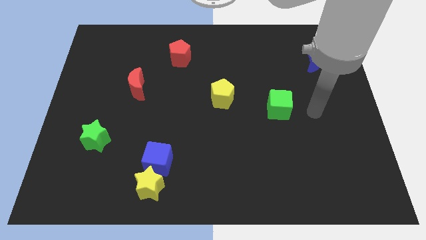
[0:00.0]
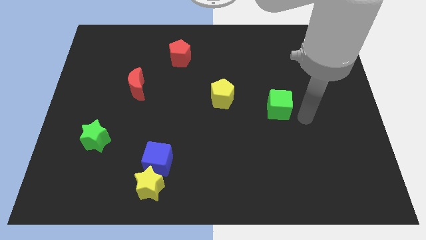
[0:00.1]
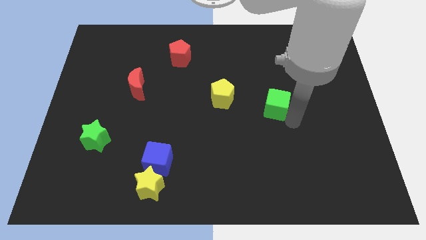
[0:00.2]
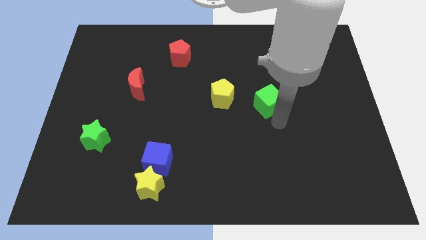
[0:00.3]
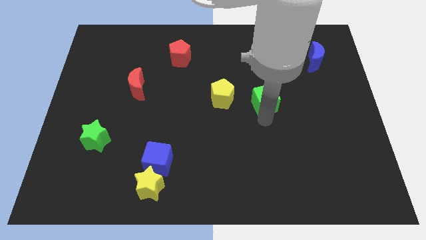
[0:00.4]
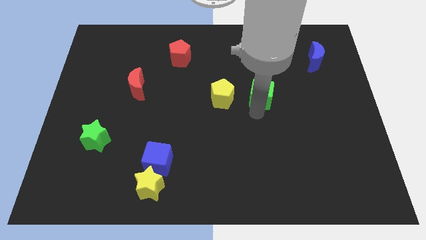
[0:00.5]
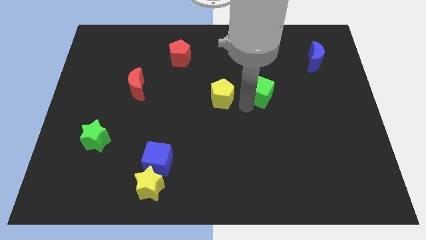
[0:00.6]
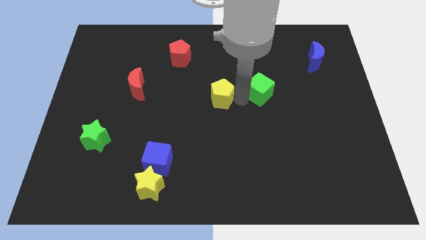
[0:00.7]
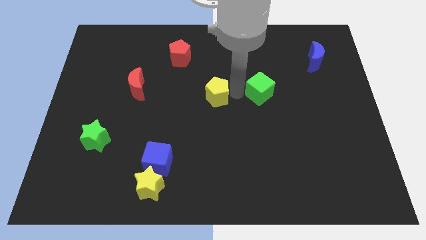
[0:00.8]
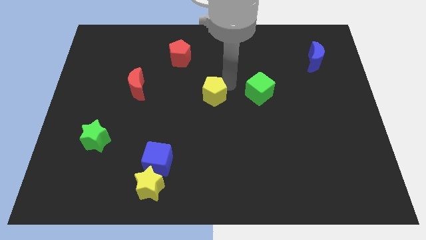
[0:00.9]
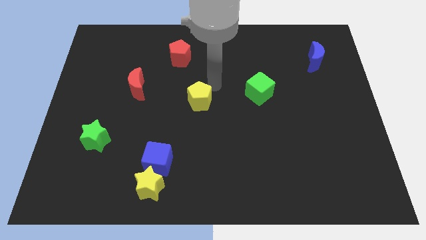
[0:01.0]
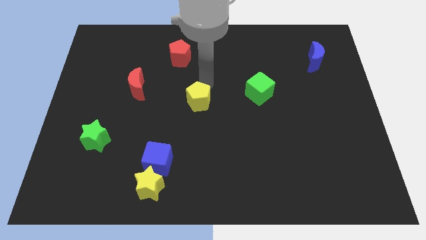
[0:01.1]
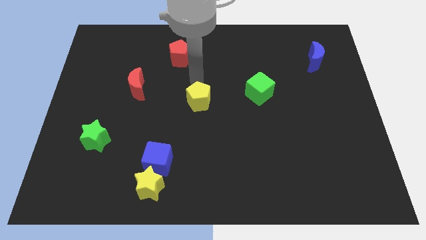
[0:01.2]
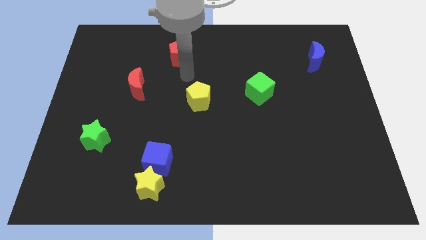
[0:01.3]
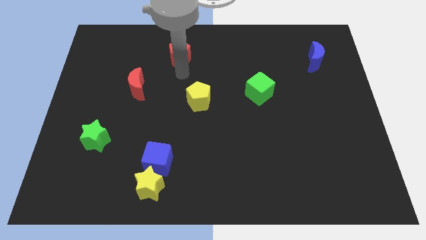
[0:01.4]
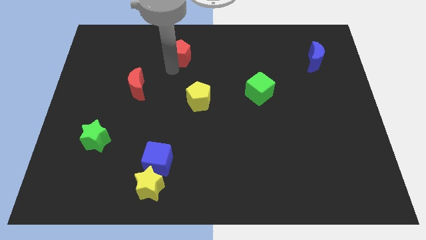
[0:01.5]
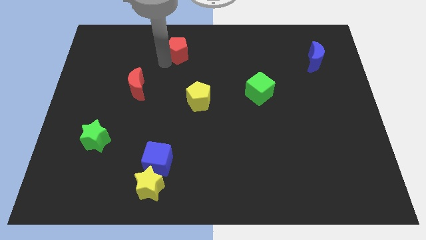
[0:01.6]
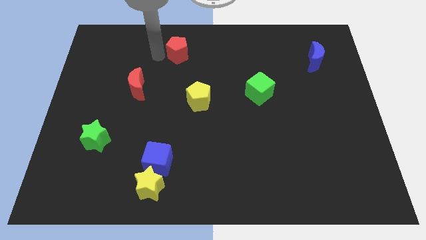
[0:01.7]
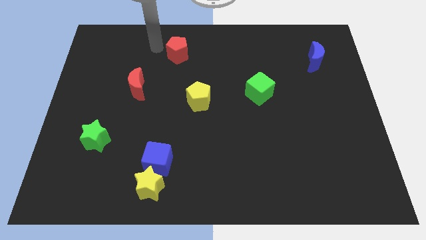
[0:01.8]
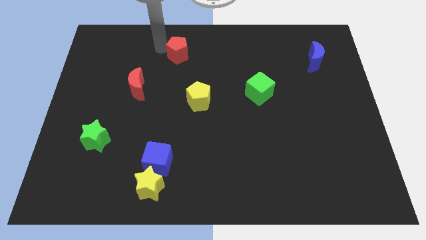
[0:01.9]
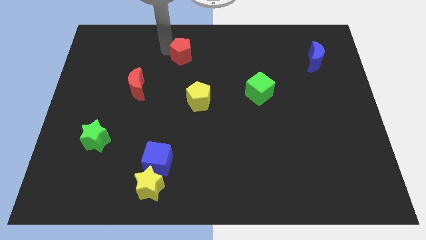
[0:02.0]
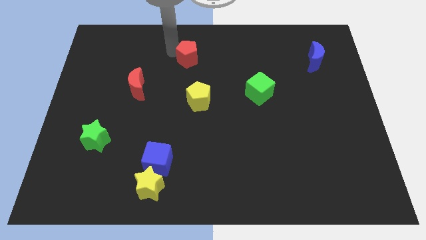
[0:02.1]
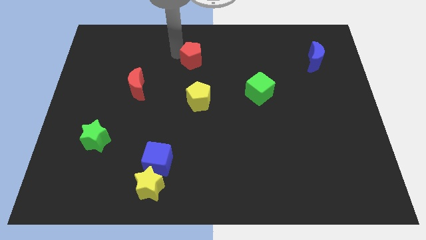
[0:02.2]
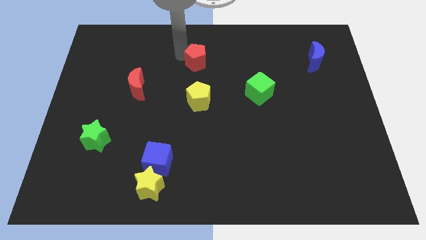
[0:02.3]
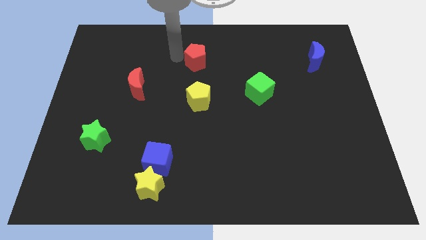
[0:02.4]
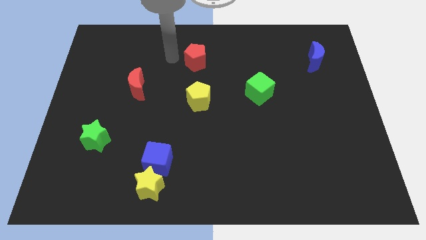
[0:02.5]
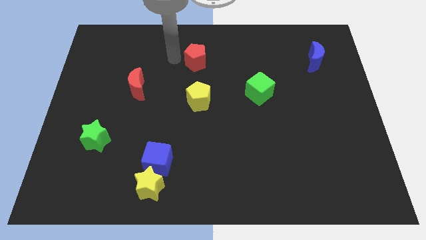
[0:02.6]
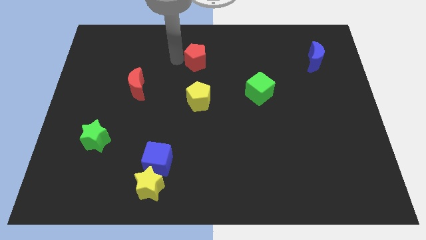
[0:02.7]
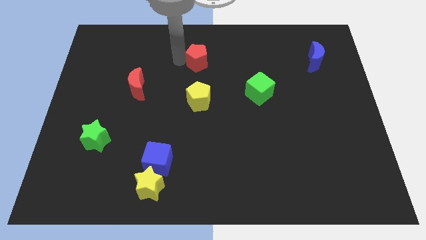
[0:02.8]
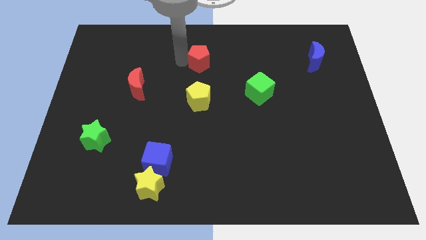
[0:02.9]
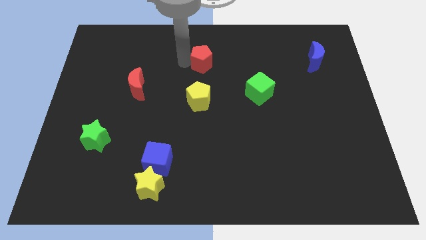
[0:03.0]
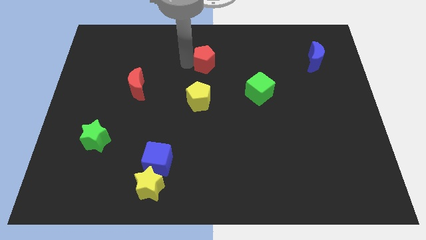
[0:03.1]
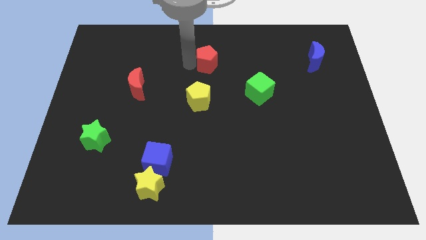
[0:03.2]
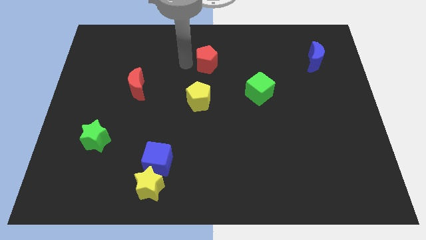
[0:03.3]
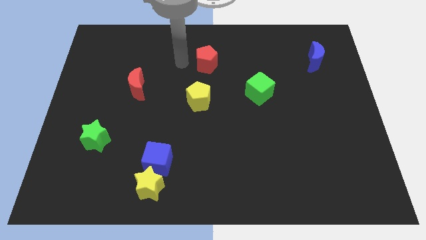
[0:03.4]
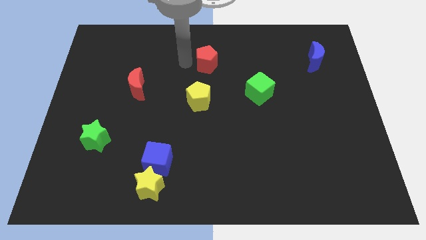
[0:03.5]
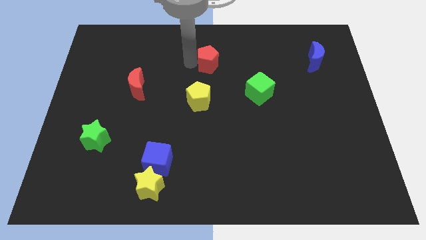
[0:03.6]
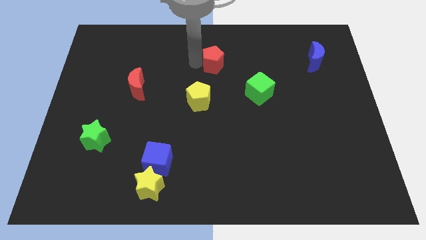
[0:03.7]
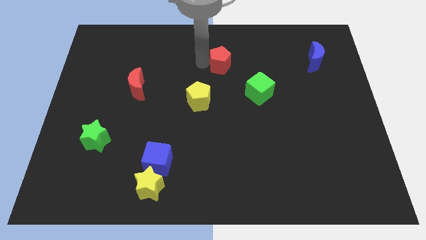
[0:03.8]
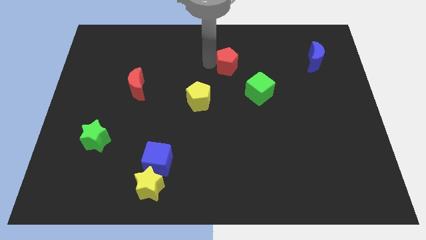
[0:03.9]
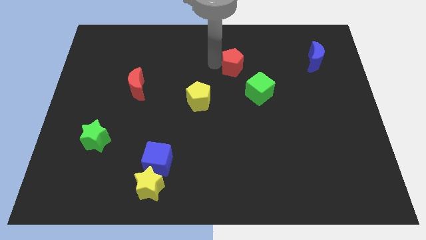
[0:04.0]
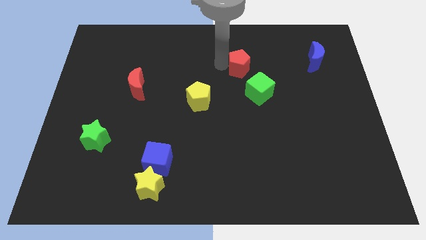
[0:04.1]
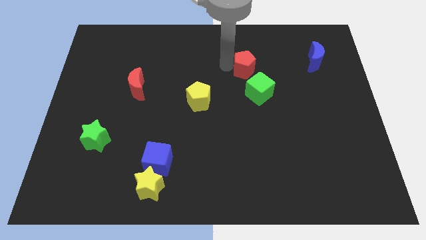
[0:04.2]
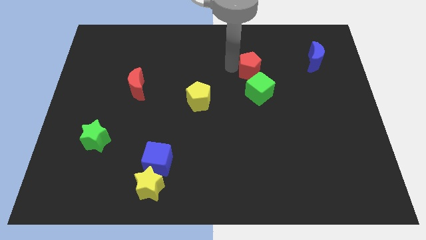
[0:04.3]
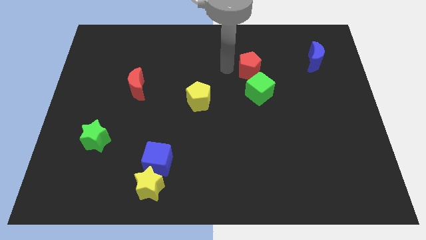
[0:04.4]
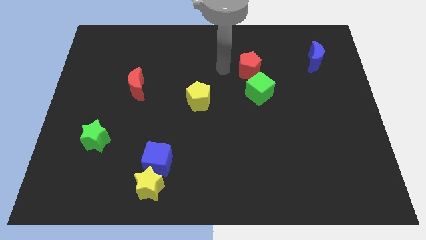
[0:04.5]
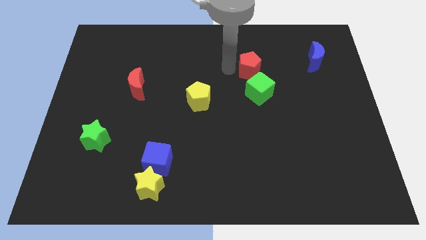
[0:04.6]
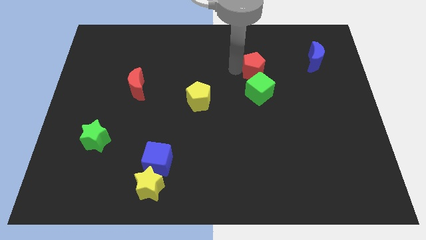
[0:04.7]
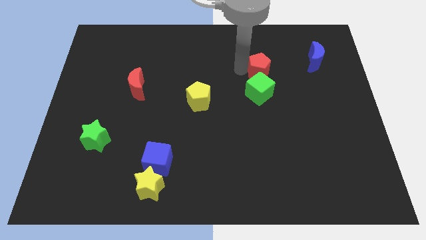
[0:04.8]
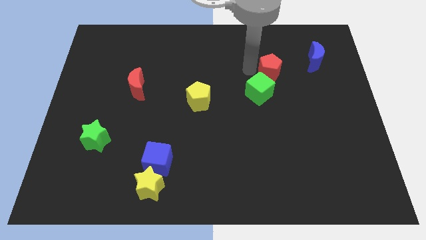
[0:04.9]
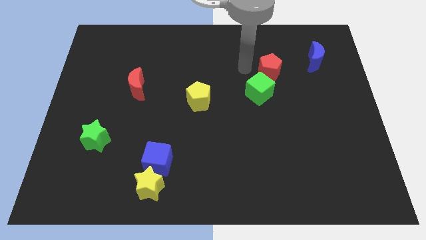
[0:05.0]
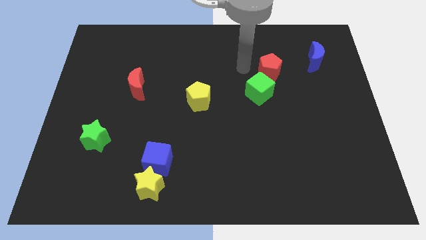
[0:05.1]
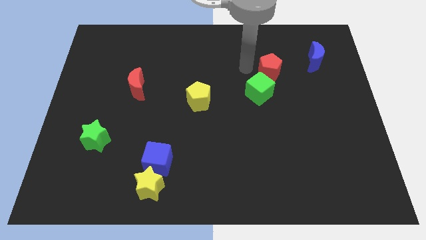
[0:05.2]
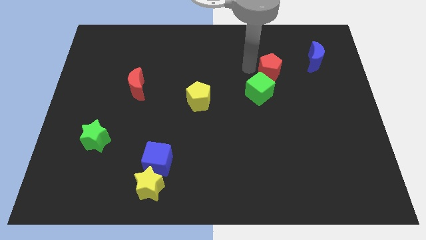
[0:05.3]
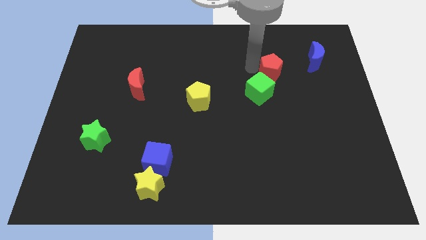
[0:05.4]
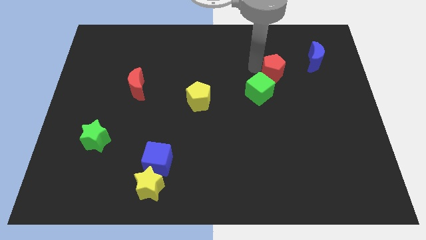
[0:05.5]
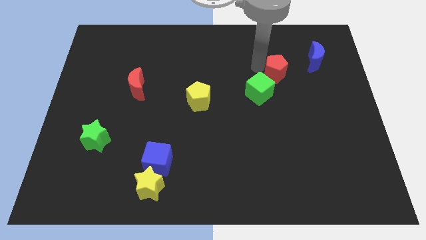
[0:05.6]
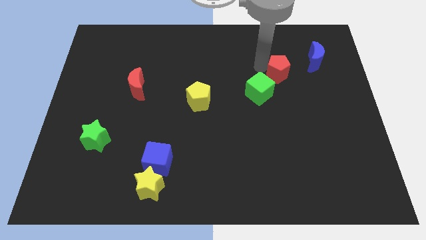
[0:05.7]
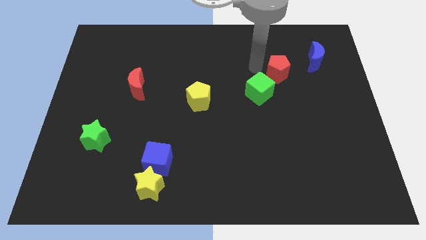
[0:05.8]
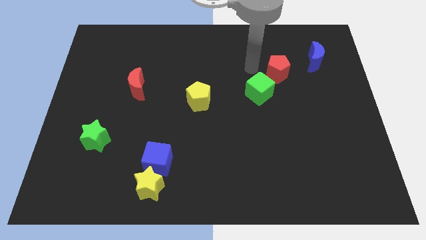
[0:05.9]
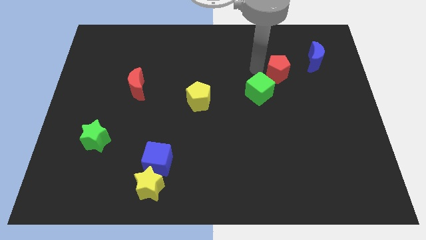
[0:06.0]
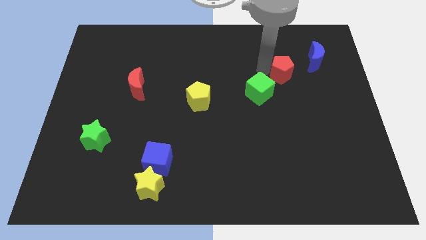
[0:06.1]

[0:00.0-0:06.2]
slide the red pentagon to the bottom left side of the blue moon

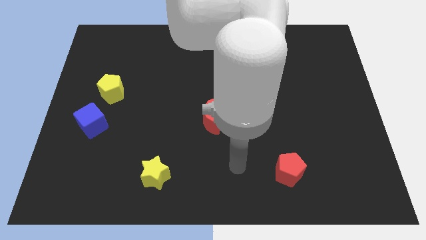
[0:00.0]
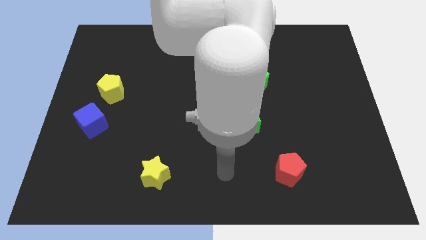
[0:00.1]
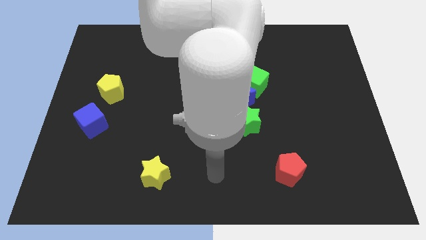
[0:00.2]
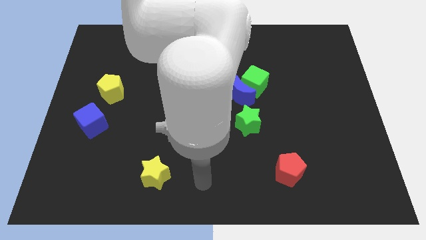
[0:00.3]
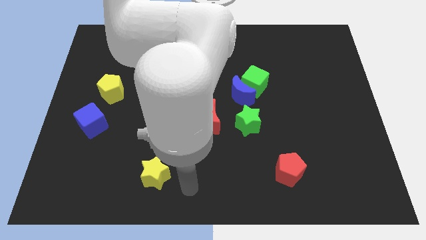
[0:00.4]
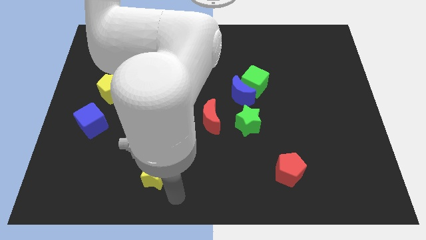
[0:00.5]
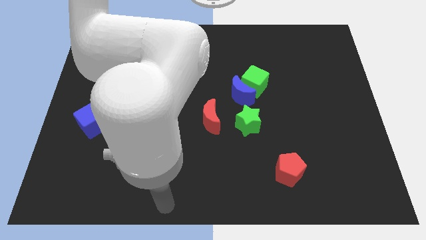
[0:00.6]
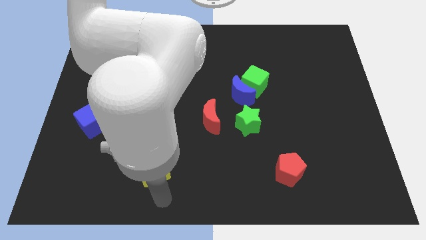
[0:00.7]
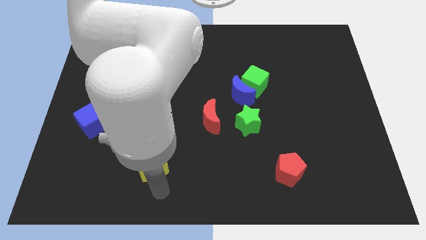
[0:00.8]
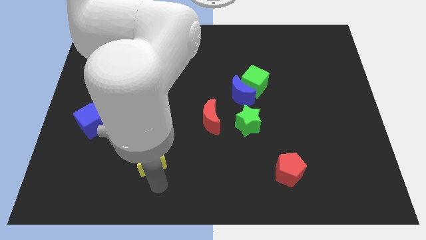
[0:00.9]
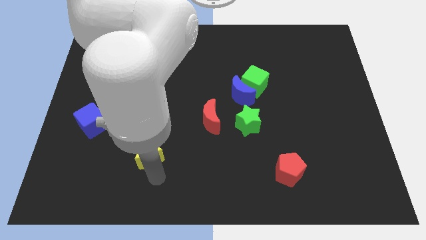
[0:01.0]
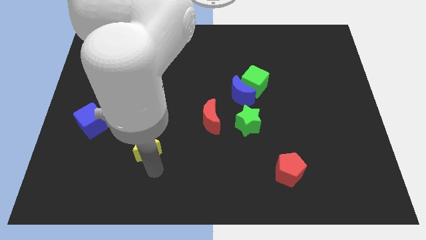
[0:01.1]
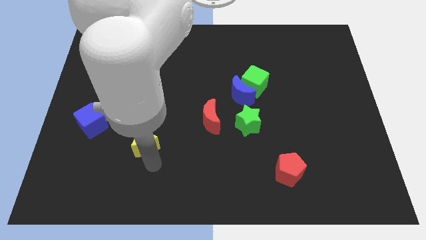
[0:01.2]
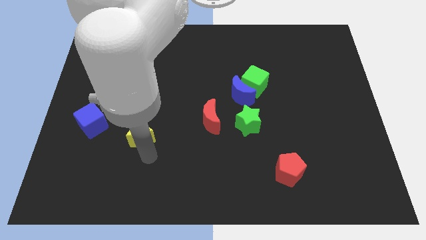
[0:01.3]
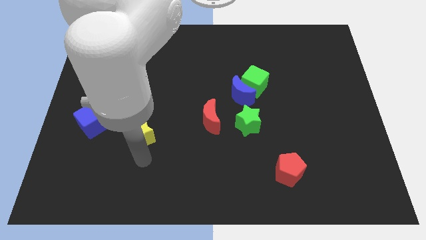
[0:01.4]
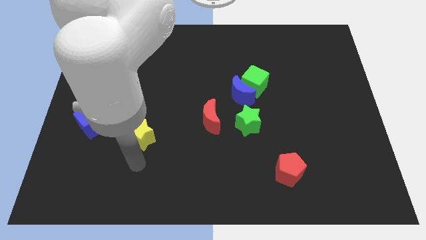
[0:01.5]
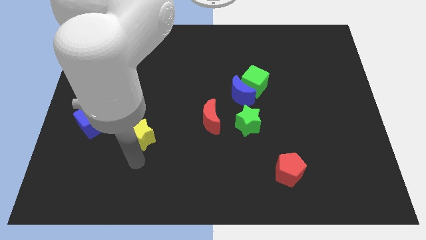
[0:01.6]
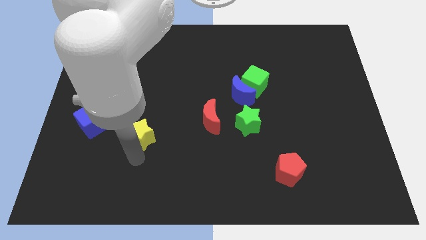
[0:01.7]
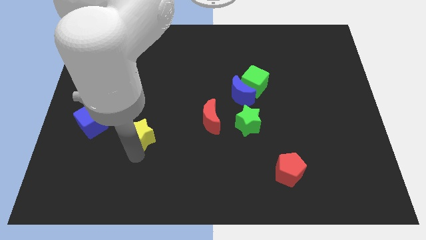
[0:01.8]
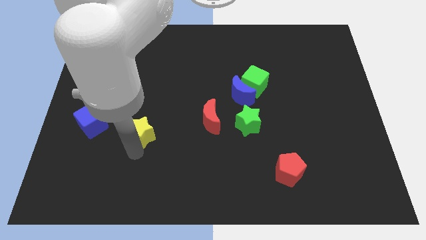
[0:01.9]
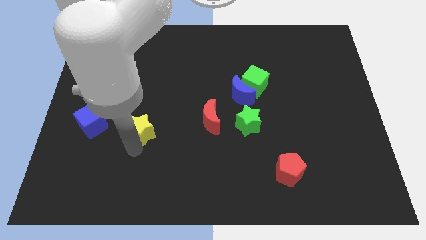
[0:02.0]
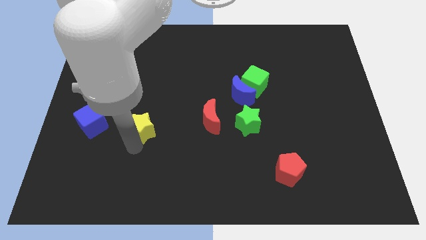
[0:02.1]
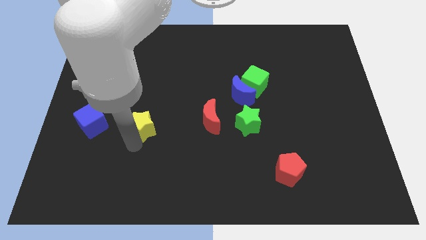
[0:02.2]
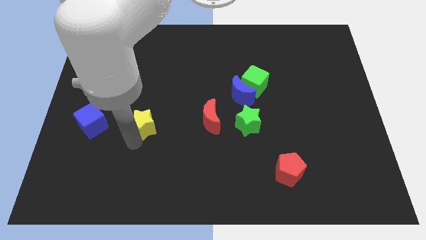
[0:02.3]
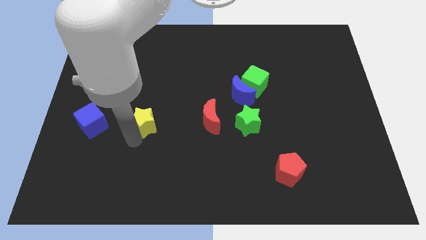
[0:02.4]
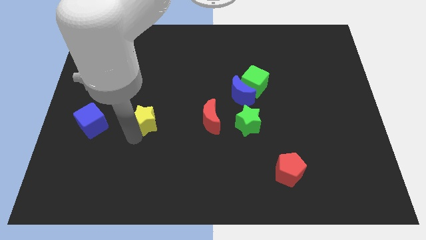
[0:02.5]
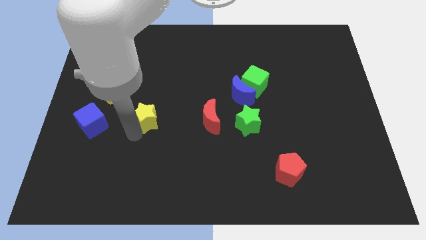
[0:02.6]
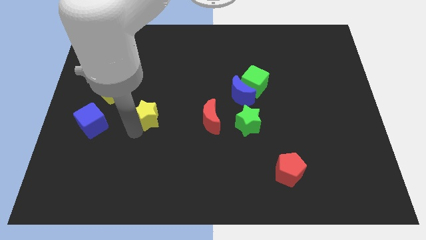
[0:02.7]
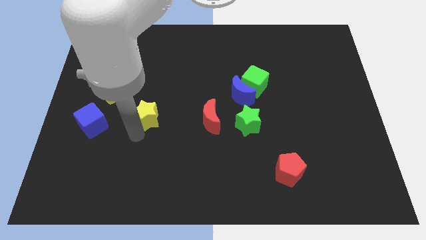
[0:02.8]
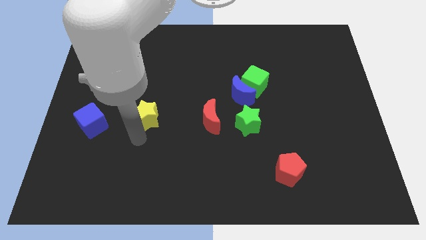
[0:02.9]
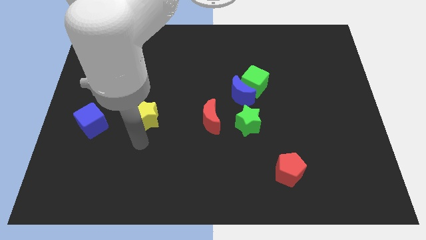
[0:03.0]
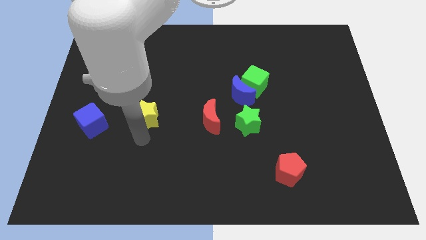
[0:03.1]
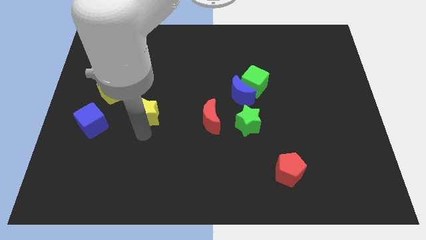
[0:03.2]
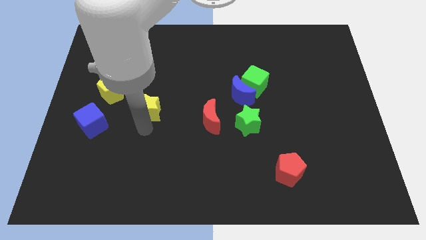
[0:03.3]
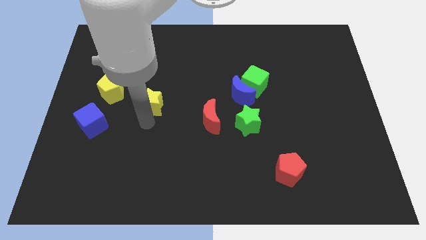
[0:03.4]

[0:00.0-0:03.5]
slide the yellow star right of the yellow pentagon
